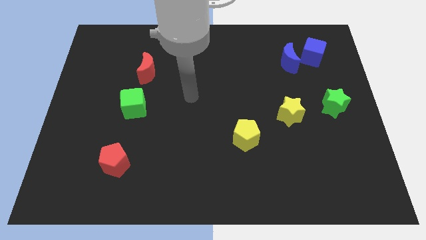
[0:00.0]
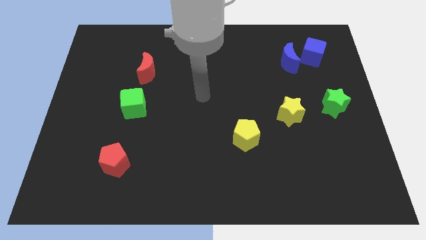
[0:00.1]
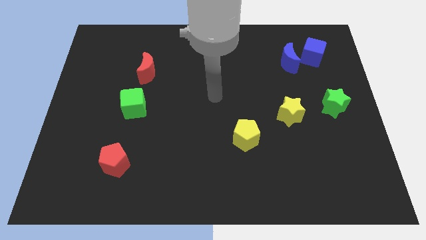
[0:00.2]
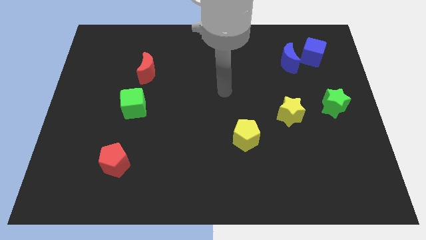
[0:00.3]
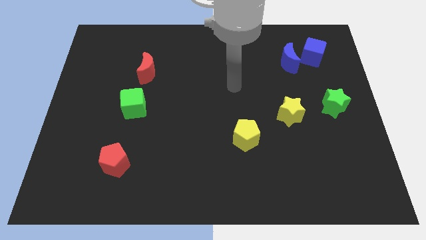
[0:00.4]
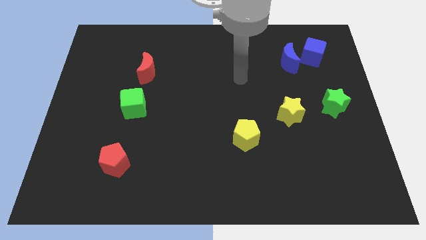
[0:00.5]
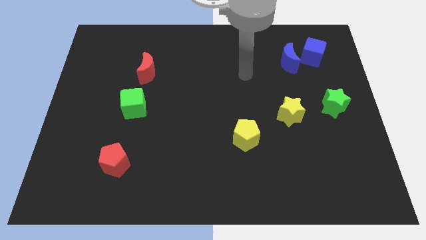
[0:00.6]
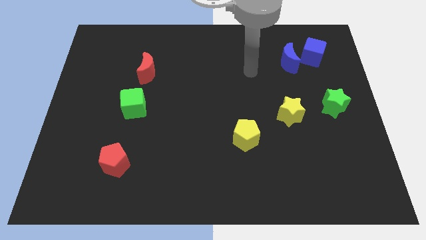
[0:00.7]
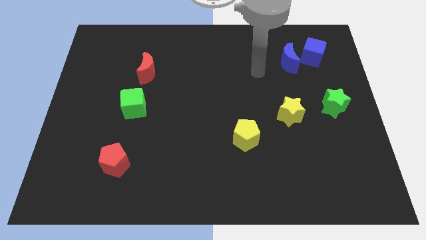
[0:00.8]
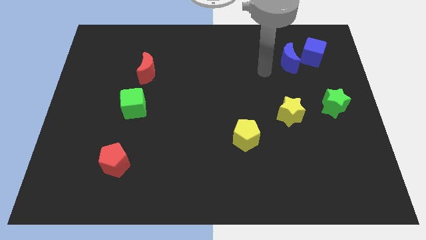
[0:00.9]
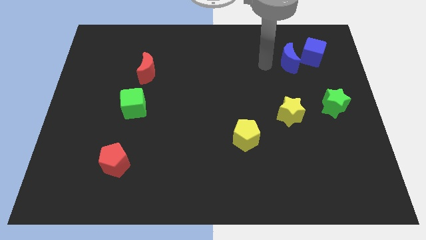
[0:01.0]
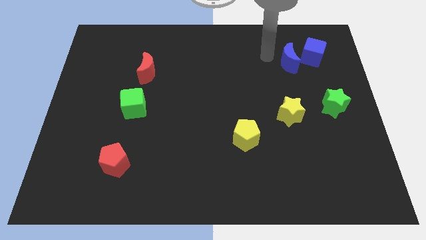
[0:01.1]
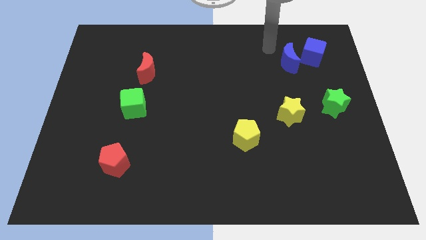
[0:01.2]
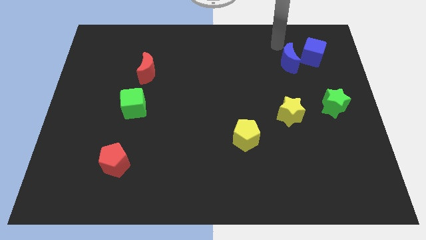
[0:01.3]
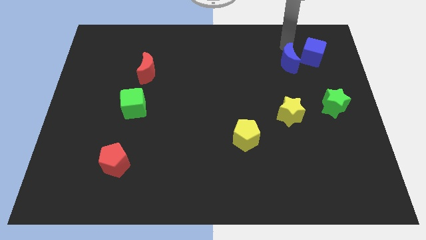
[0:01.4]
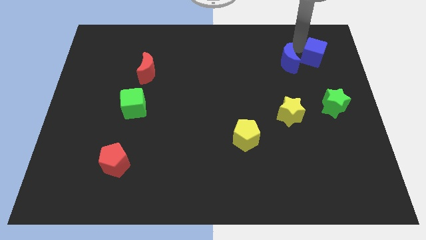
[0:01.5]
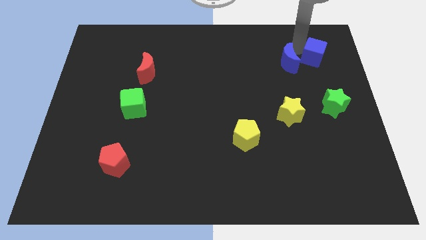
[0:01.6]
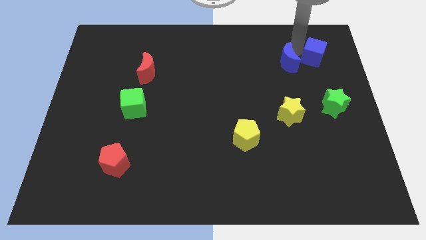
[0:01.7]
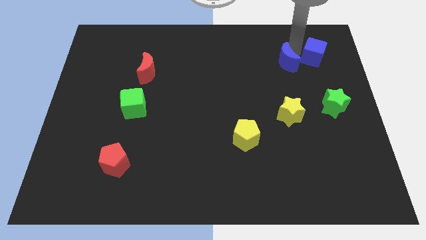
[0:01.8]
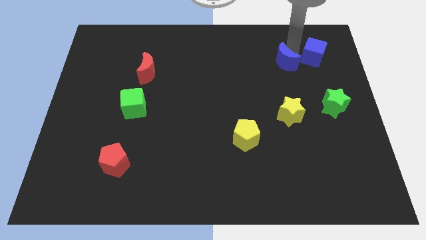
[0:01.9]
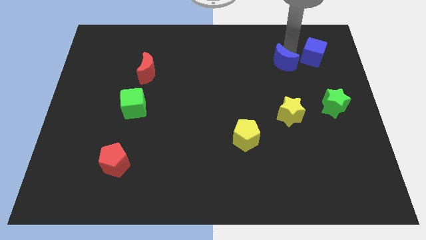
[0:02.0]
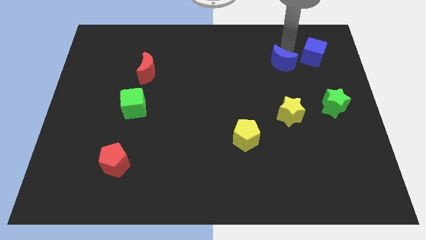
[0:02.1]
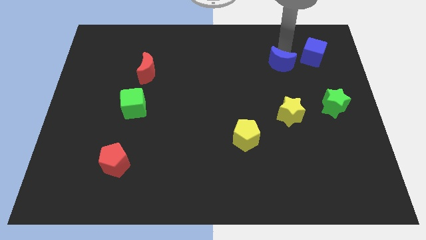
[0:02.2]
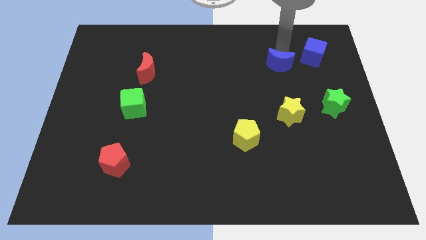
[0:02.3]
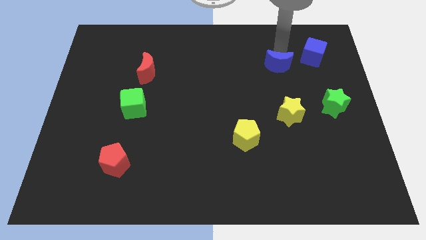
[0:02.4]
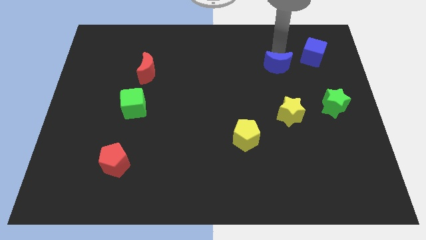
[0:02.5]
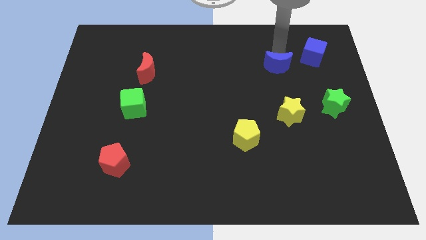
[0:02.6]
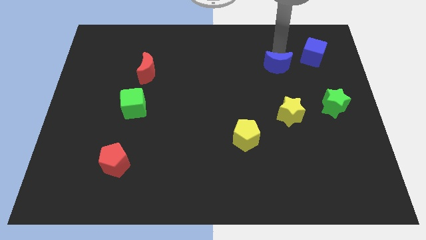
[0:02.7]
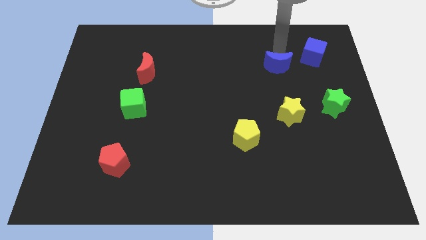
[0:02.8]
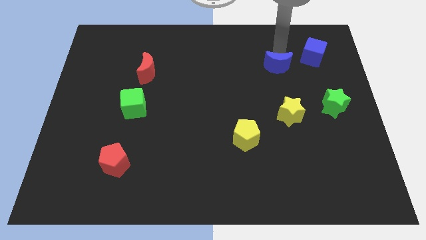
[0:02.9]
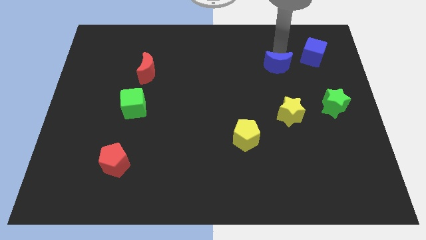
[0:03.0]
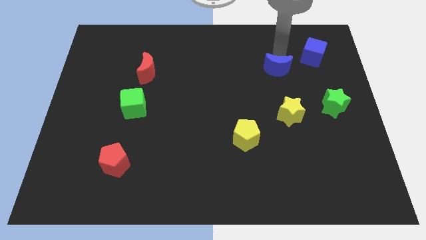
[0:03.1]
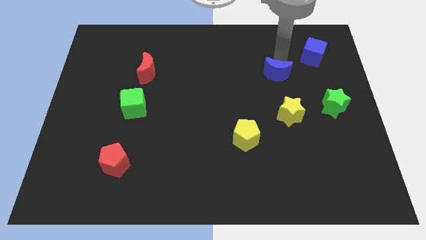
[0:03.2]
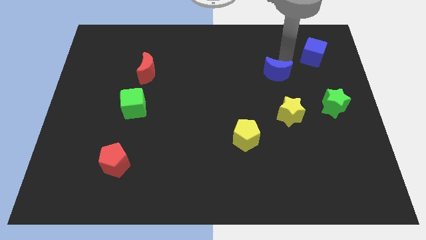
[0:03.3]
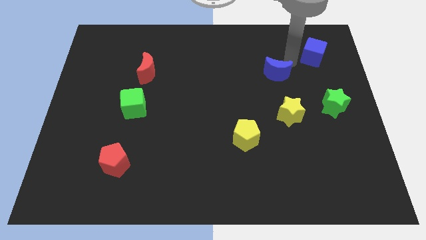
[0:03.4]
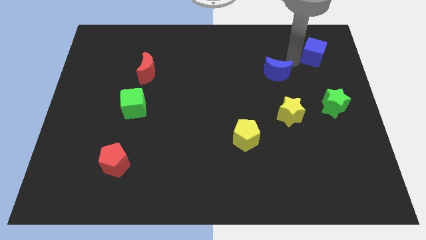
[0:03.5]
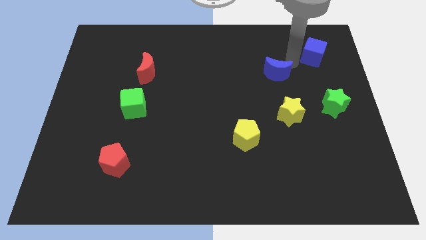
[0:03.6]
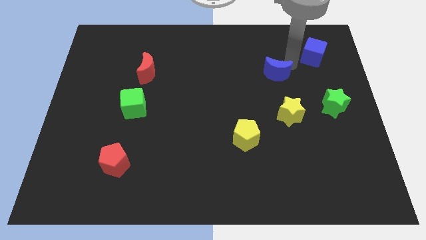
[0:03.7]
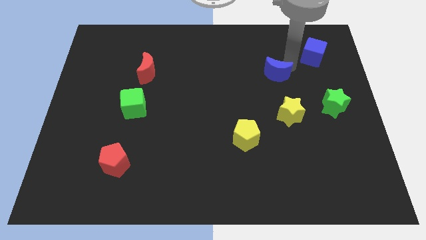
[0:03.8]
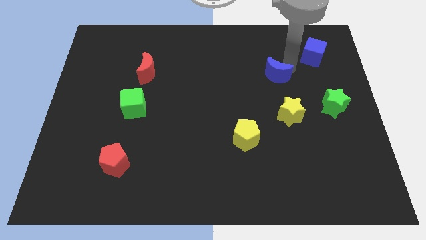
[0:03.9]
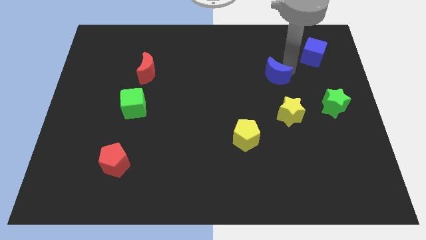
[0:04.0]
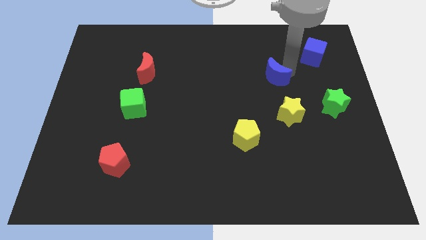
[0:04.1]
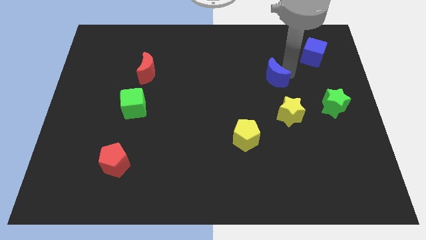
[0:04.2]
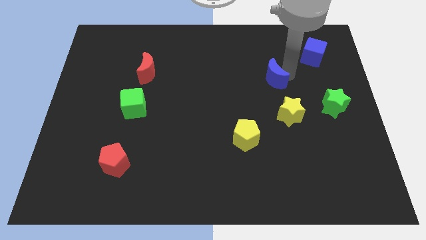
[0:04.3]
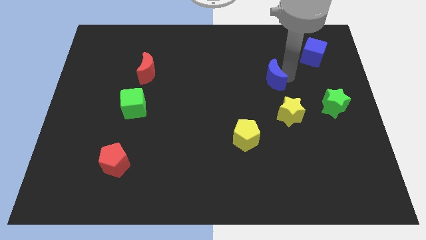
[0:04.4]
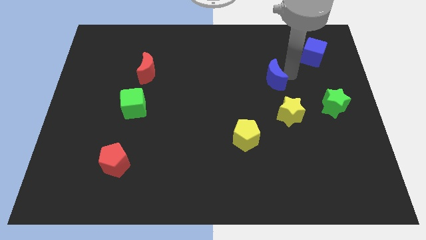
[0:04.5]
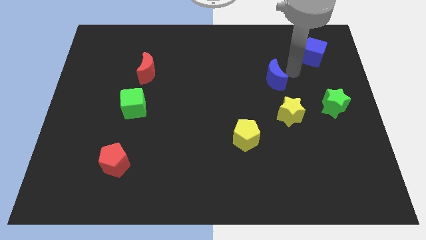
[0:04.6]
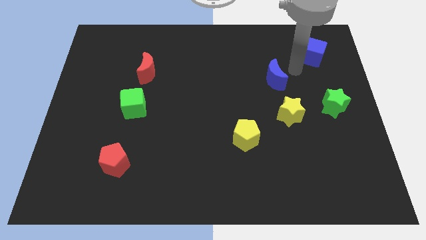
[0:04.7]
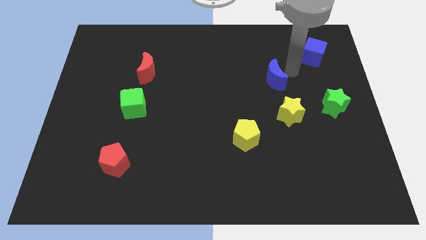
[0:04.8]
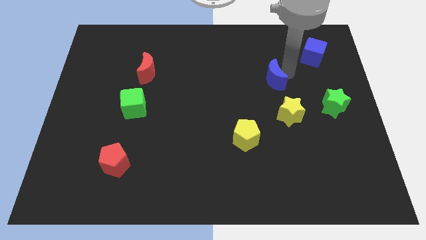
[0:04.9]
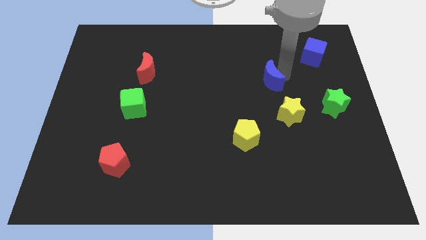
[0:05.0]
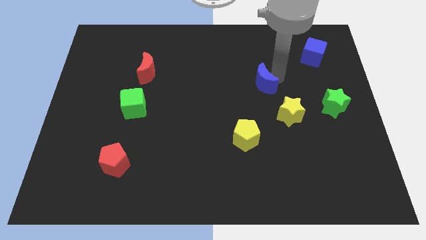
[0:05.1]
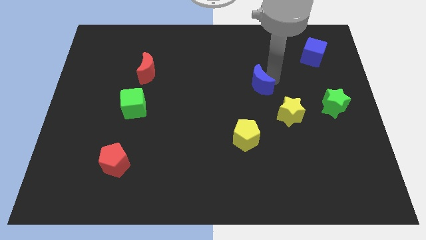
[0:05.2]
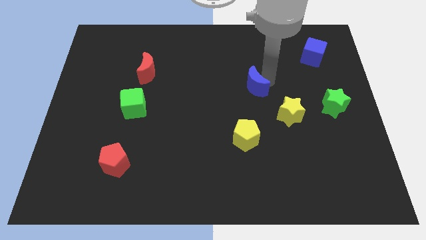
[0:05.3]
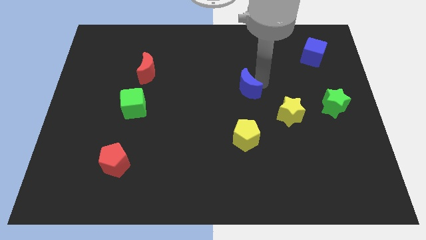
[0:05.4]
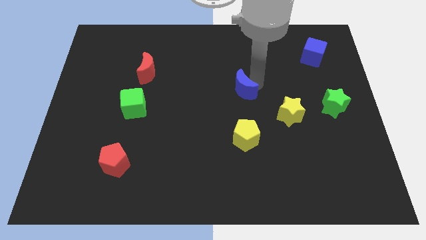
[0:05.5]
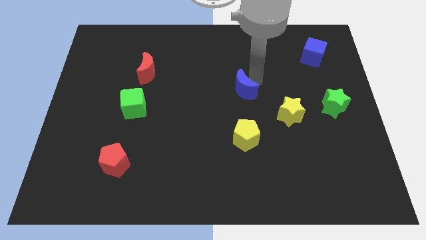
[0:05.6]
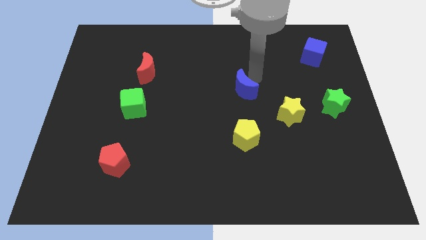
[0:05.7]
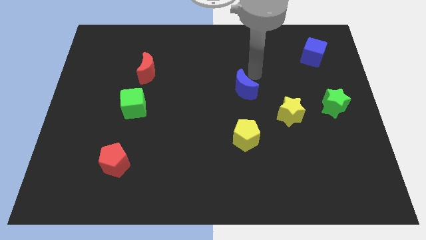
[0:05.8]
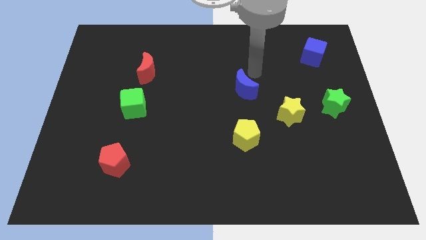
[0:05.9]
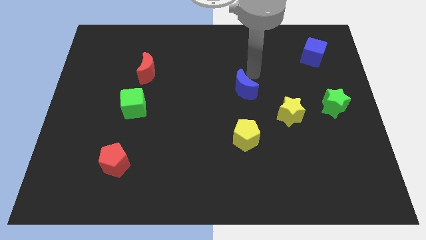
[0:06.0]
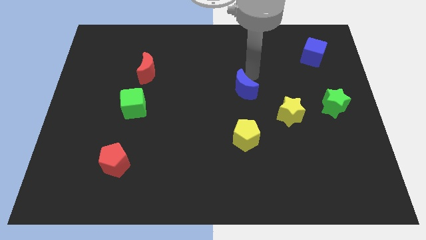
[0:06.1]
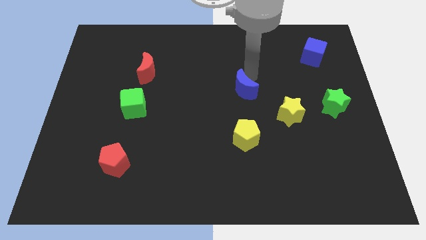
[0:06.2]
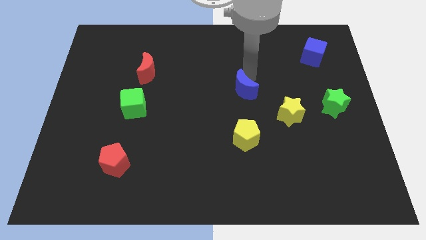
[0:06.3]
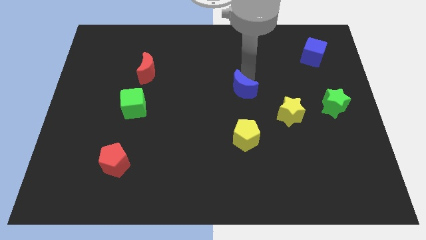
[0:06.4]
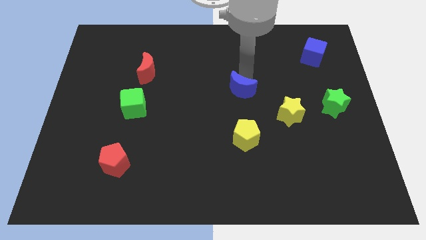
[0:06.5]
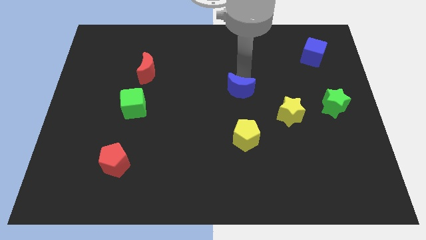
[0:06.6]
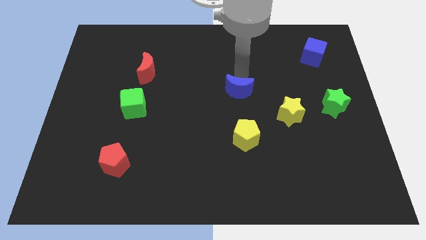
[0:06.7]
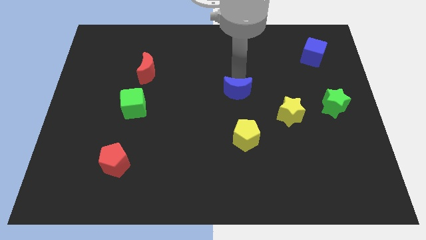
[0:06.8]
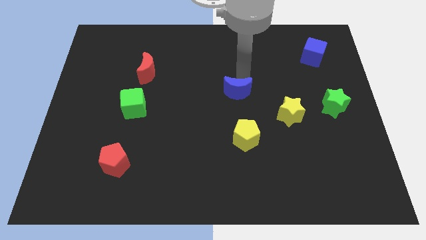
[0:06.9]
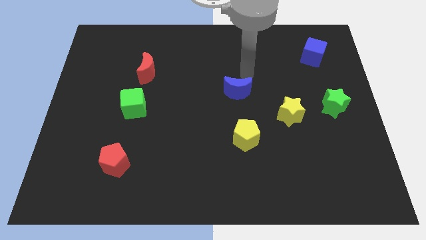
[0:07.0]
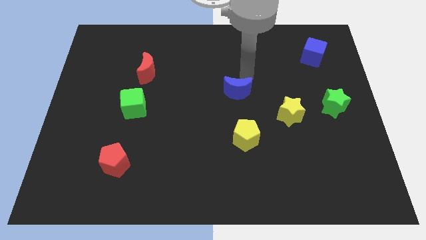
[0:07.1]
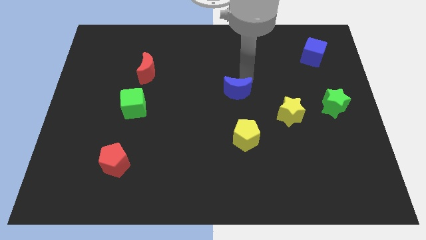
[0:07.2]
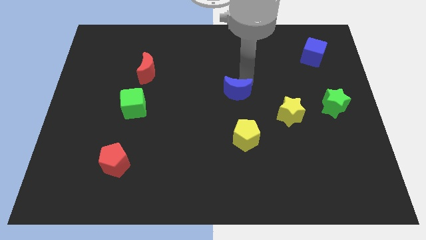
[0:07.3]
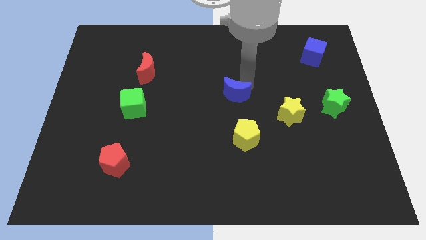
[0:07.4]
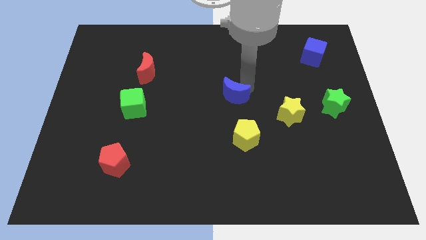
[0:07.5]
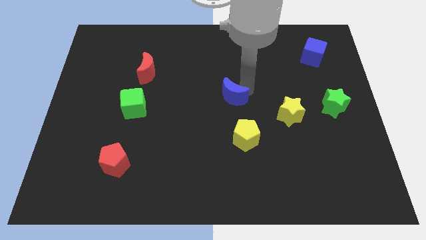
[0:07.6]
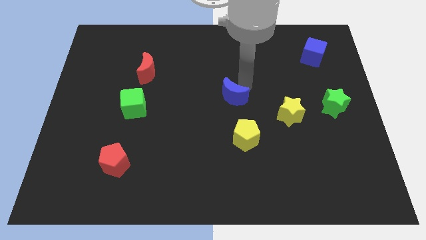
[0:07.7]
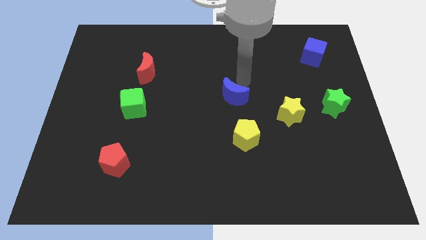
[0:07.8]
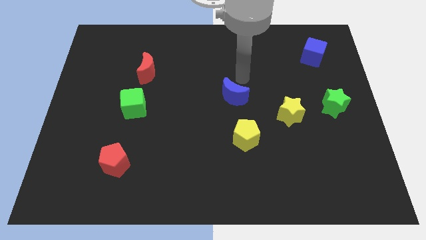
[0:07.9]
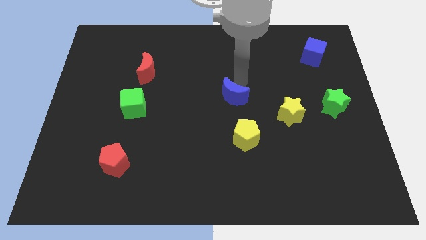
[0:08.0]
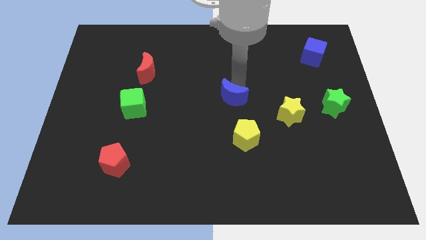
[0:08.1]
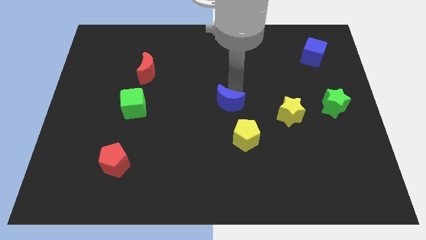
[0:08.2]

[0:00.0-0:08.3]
move the blue moon downwards and then to the left

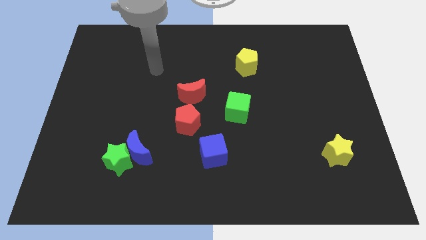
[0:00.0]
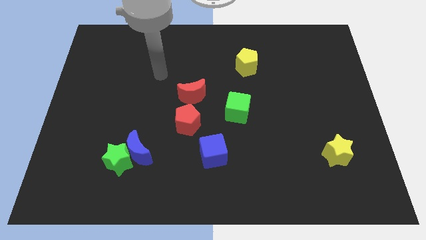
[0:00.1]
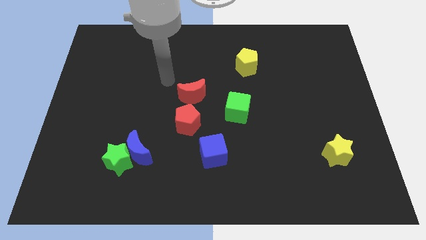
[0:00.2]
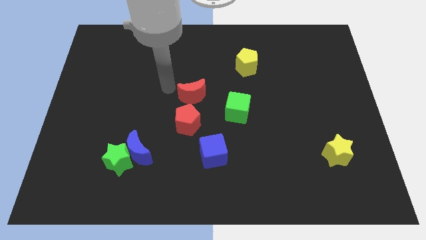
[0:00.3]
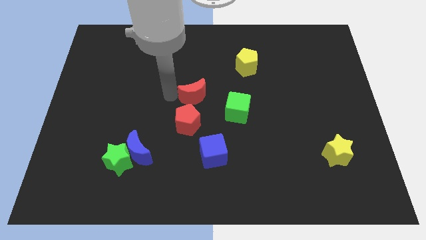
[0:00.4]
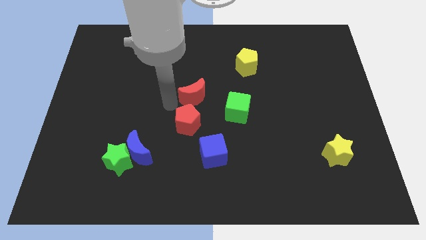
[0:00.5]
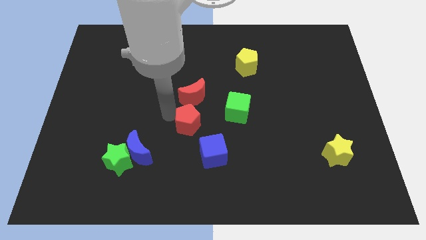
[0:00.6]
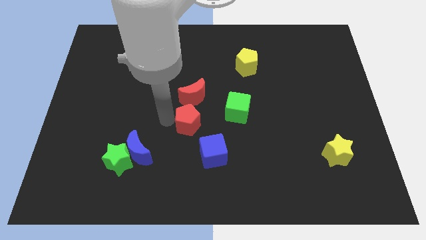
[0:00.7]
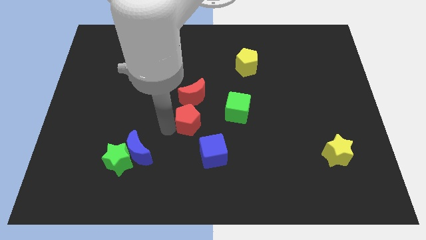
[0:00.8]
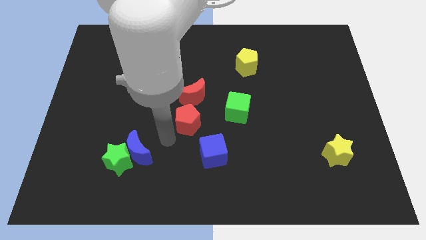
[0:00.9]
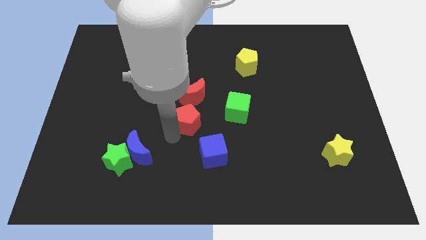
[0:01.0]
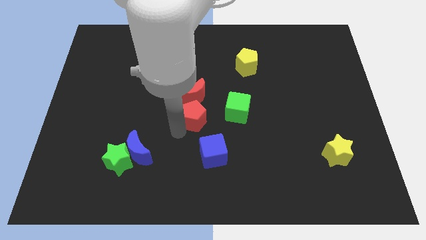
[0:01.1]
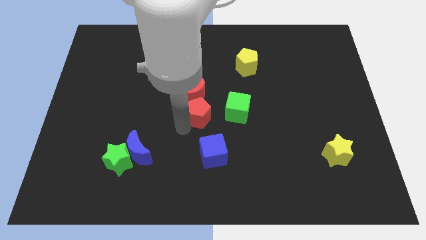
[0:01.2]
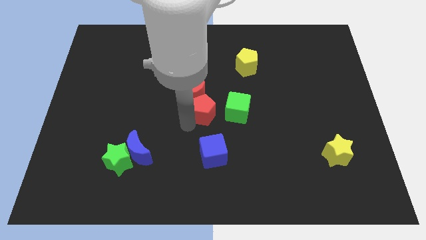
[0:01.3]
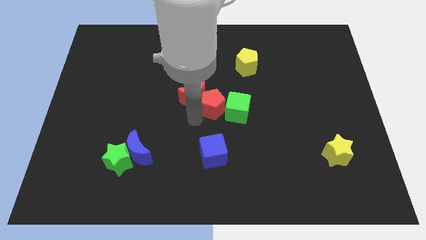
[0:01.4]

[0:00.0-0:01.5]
move the red pentagon slightly up and to the right diagonally
